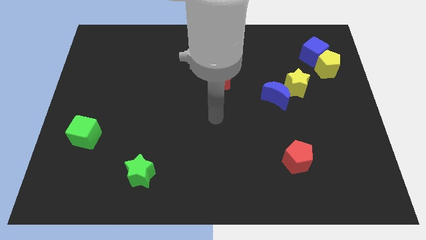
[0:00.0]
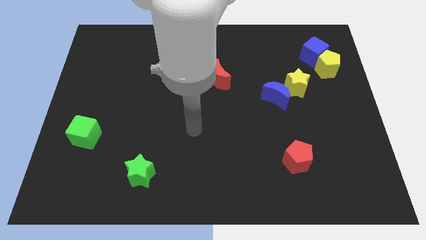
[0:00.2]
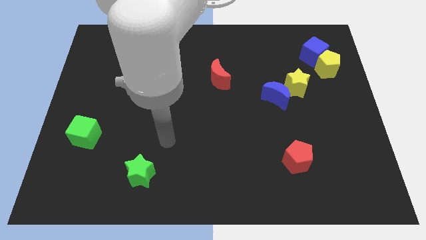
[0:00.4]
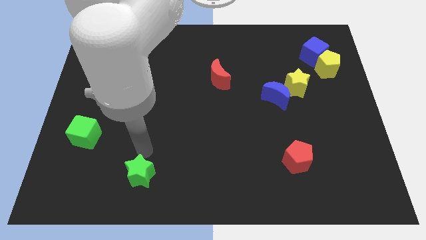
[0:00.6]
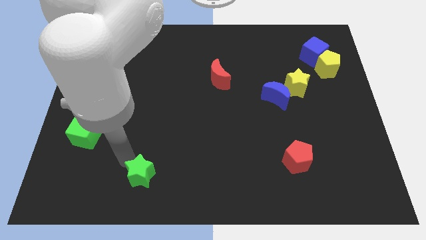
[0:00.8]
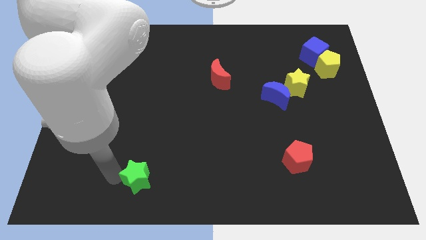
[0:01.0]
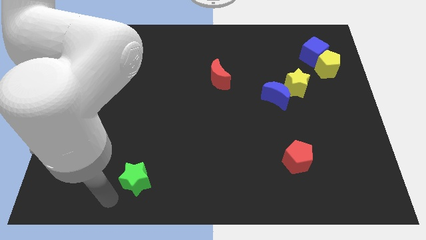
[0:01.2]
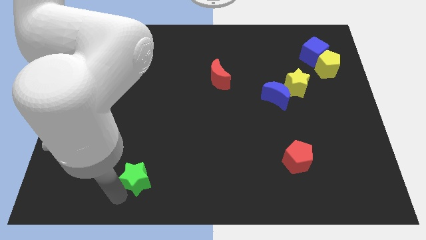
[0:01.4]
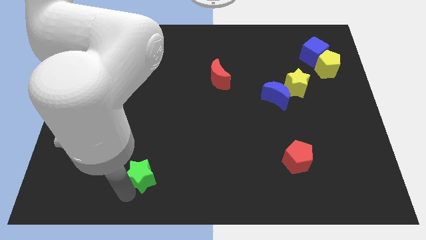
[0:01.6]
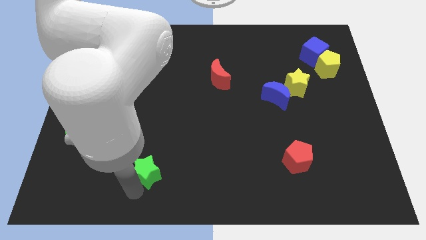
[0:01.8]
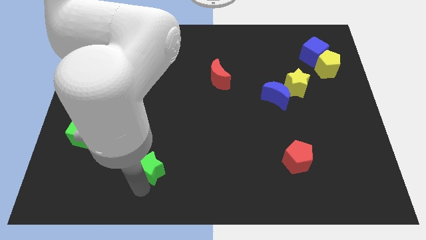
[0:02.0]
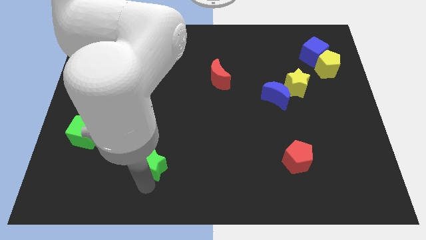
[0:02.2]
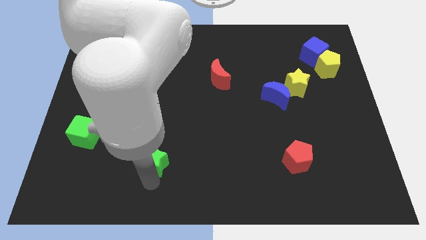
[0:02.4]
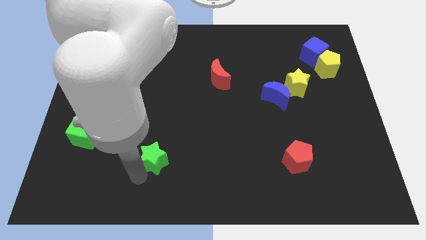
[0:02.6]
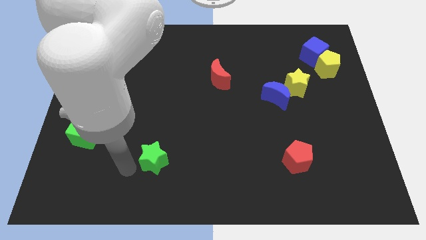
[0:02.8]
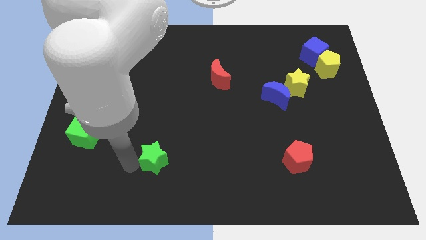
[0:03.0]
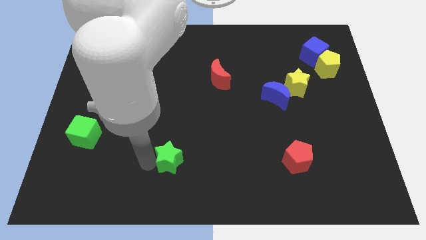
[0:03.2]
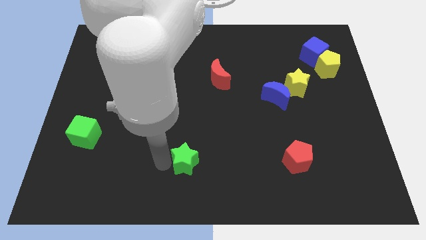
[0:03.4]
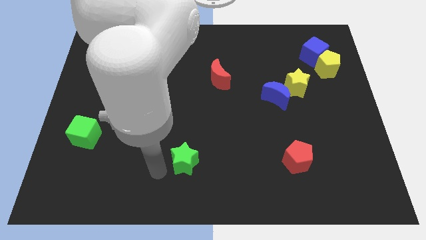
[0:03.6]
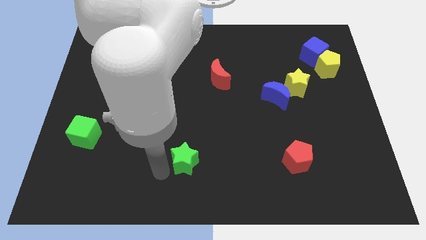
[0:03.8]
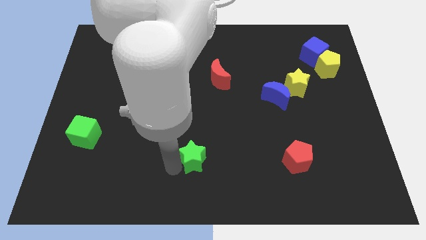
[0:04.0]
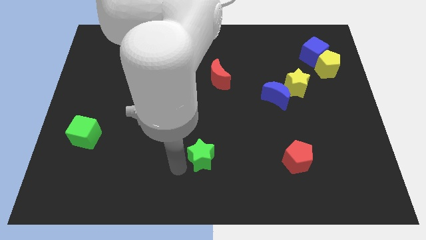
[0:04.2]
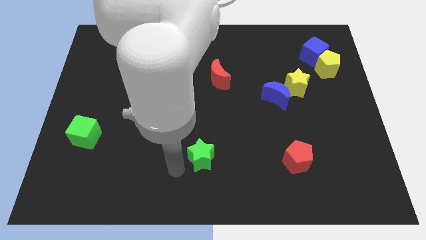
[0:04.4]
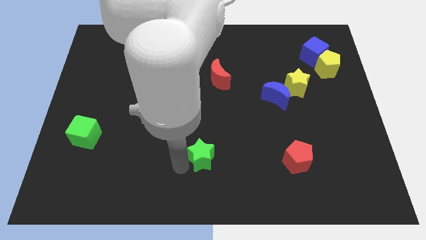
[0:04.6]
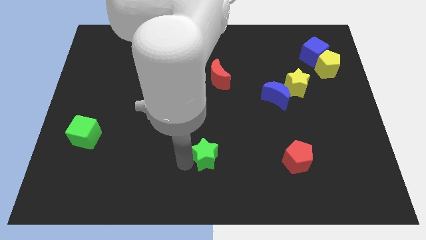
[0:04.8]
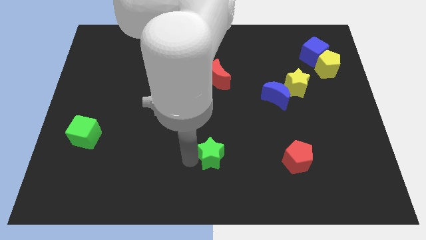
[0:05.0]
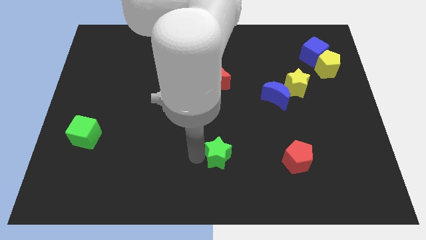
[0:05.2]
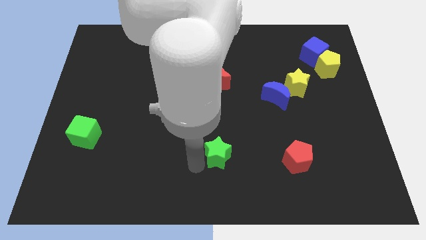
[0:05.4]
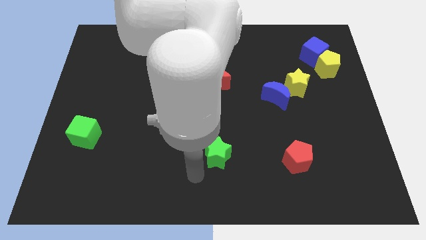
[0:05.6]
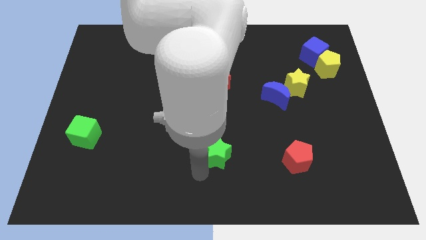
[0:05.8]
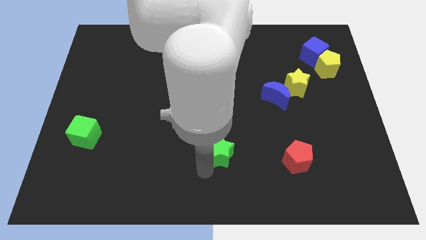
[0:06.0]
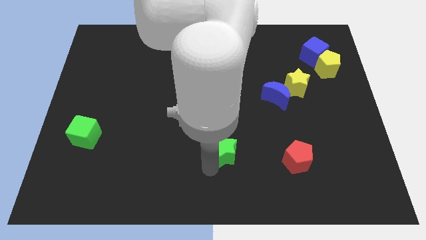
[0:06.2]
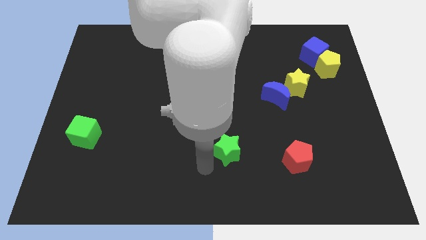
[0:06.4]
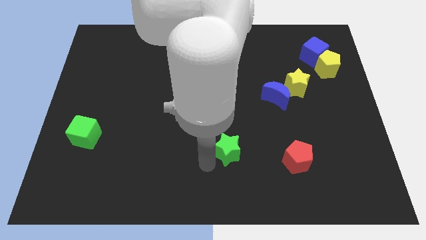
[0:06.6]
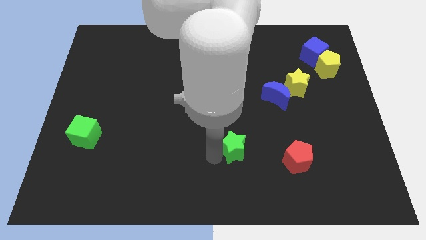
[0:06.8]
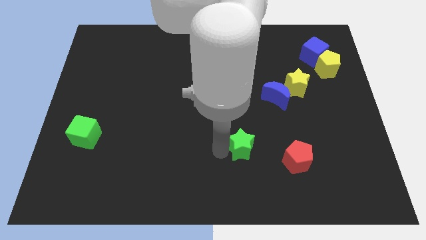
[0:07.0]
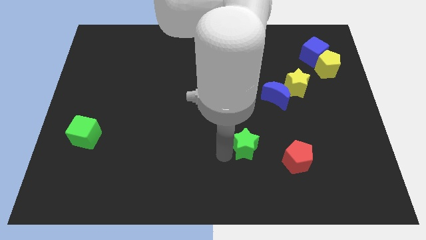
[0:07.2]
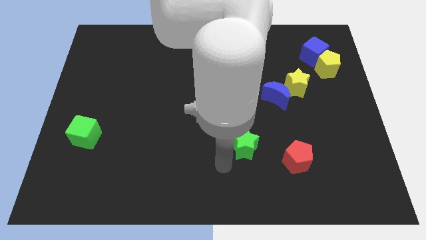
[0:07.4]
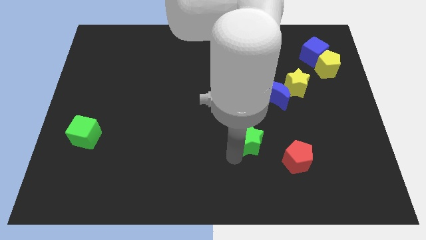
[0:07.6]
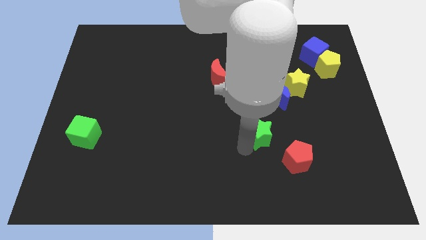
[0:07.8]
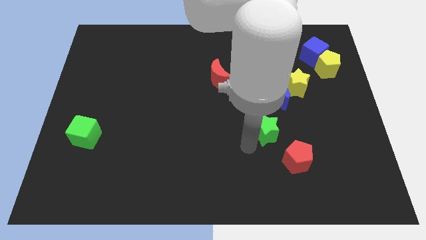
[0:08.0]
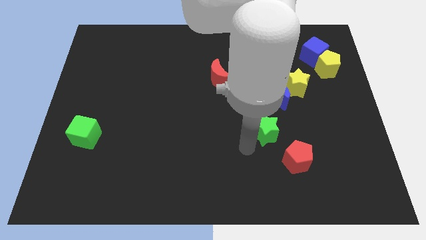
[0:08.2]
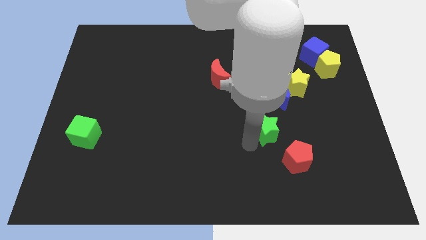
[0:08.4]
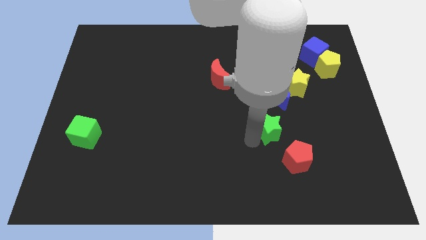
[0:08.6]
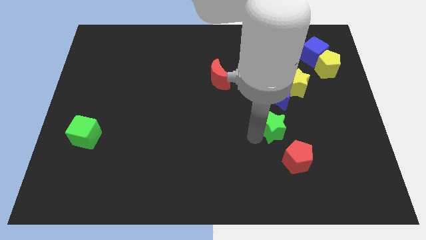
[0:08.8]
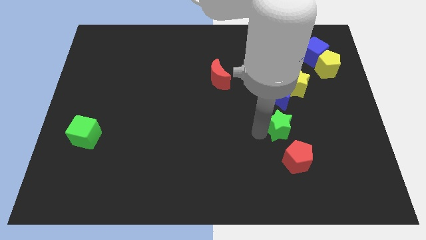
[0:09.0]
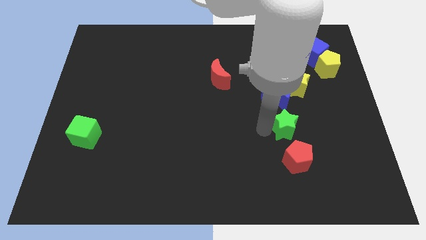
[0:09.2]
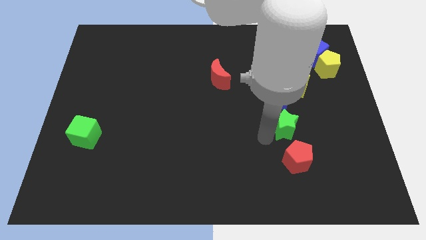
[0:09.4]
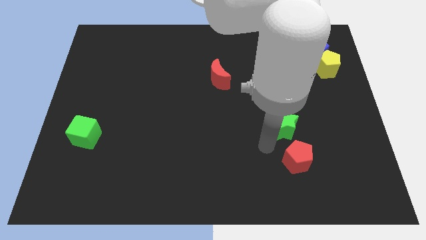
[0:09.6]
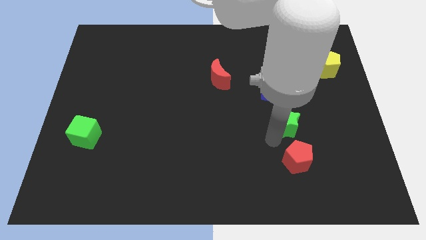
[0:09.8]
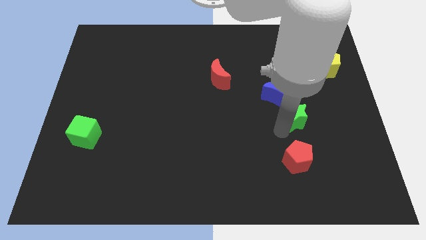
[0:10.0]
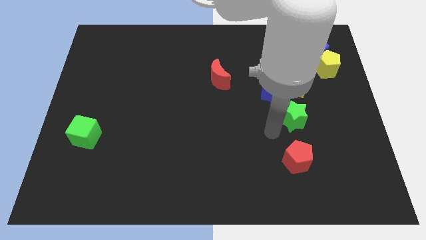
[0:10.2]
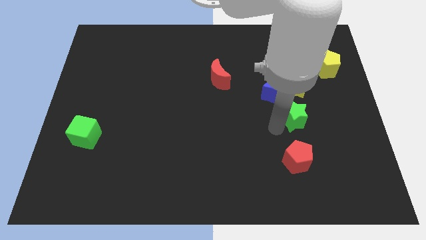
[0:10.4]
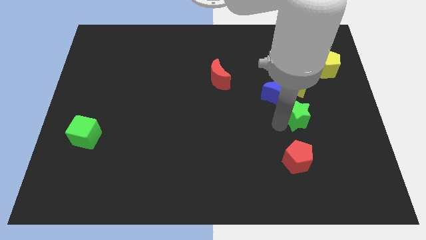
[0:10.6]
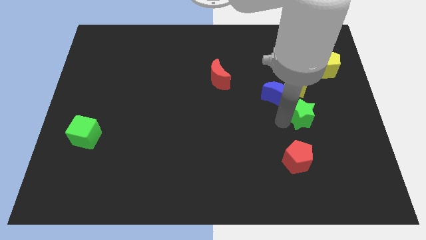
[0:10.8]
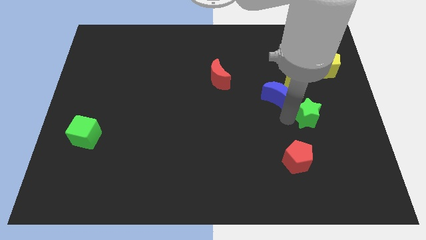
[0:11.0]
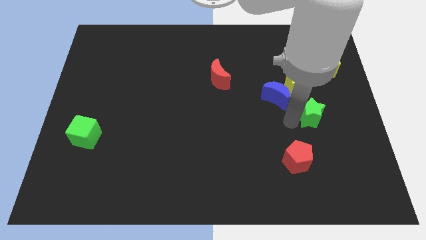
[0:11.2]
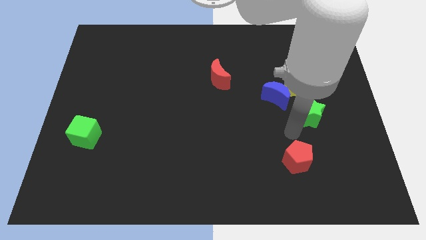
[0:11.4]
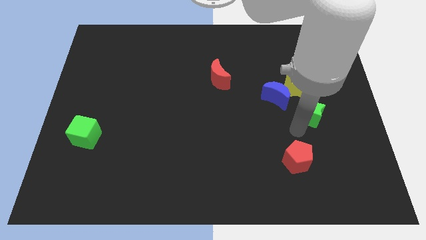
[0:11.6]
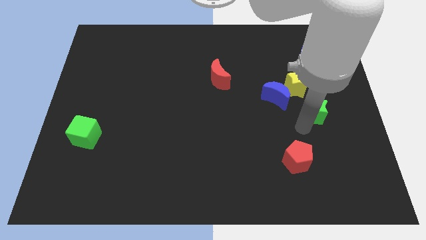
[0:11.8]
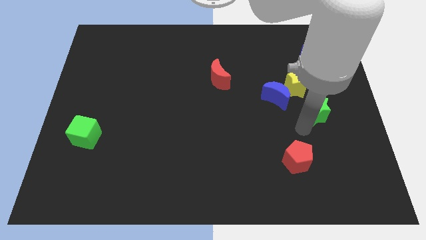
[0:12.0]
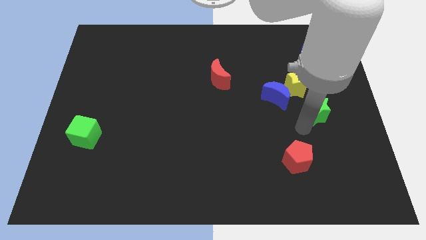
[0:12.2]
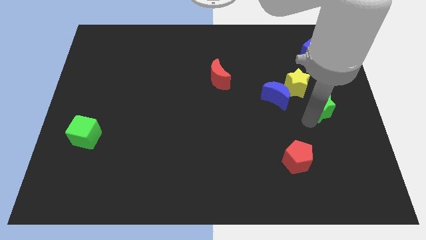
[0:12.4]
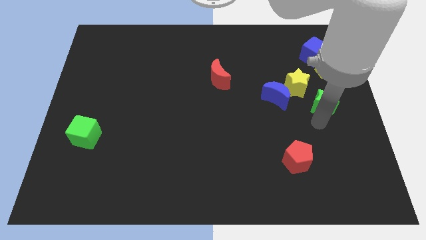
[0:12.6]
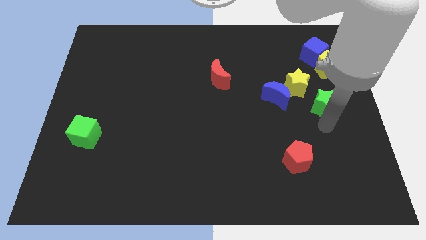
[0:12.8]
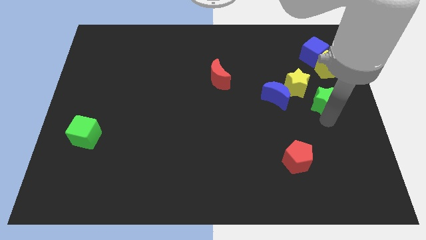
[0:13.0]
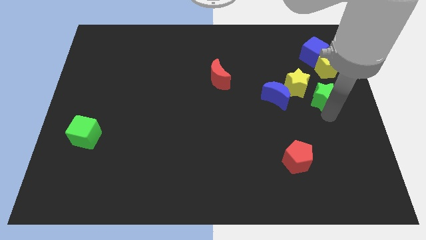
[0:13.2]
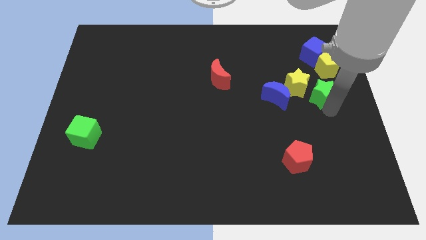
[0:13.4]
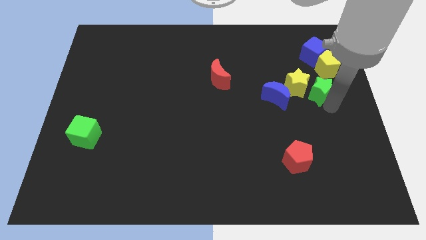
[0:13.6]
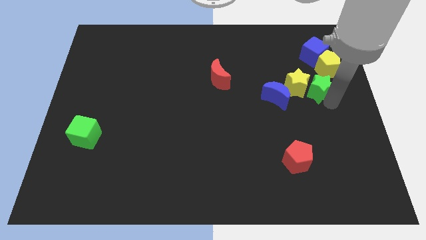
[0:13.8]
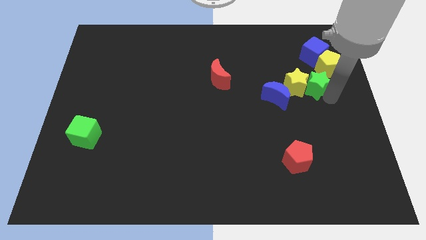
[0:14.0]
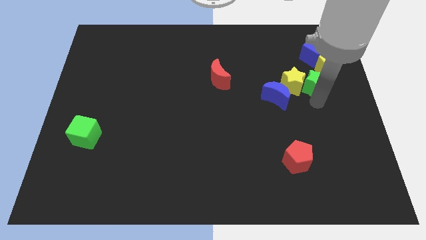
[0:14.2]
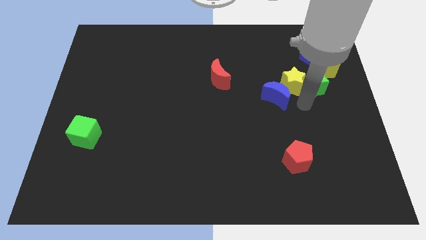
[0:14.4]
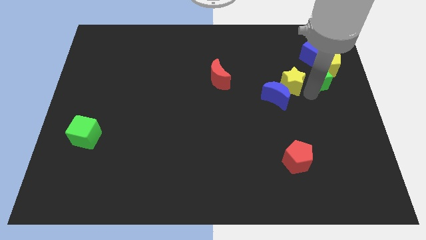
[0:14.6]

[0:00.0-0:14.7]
put the green star next to the yellow pentagon
